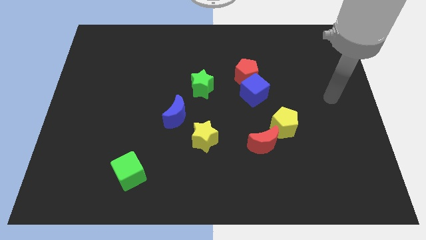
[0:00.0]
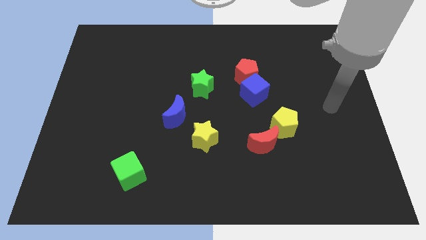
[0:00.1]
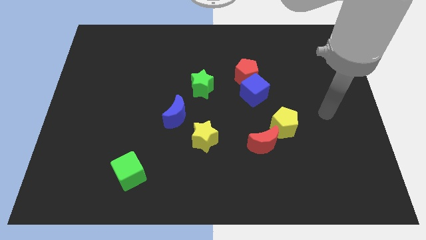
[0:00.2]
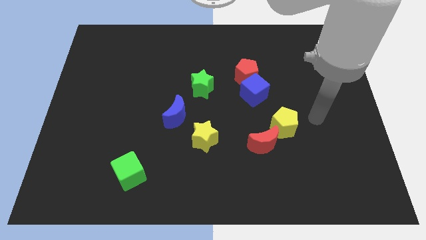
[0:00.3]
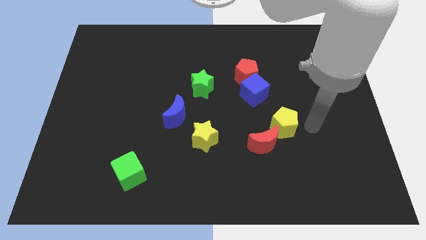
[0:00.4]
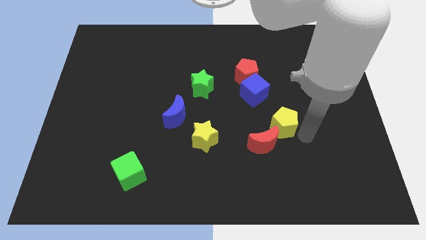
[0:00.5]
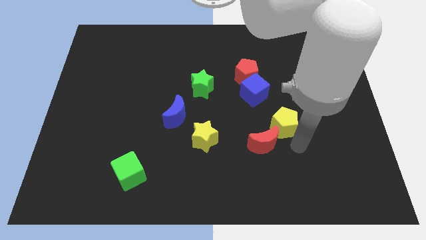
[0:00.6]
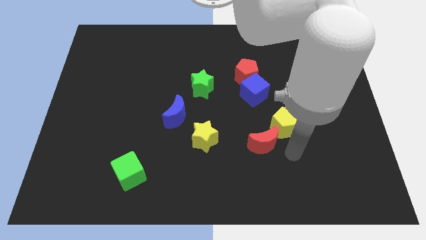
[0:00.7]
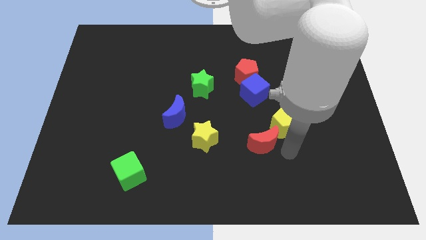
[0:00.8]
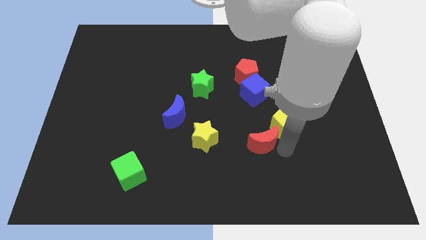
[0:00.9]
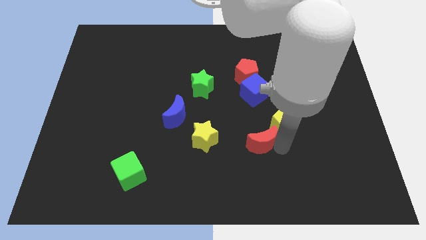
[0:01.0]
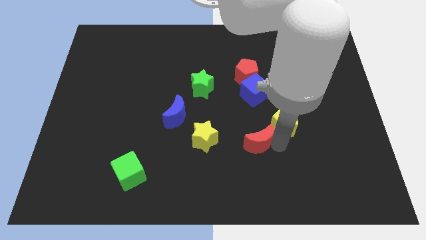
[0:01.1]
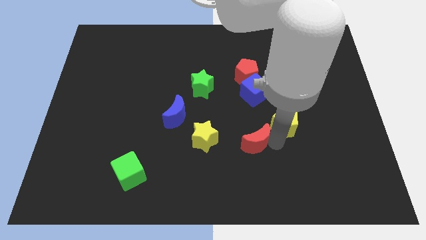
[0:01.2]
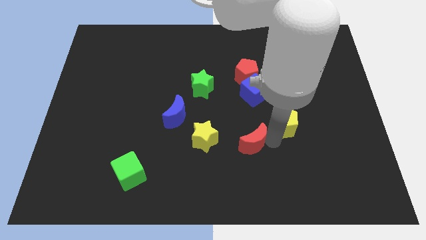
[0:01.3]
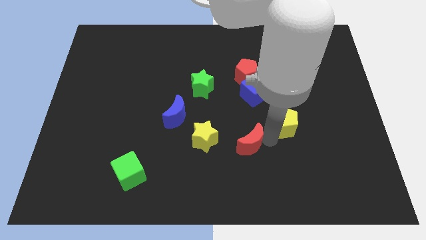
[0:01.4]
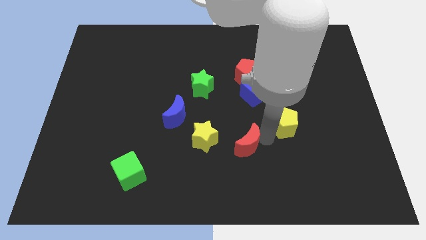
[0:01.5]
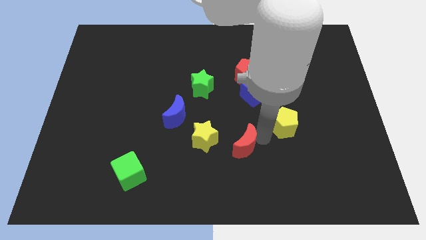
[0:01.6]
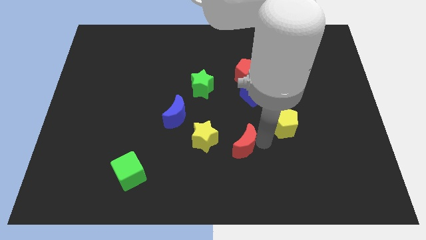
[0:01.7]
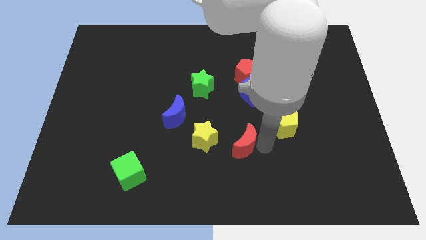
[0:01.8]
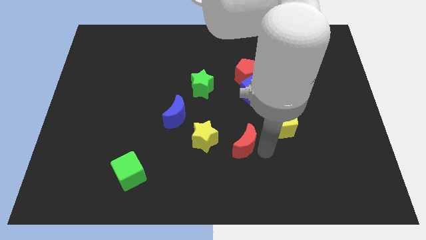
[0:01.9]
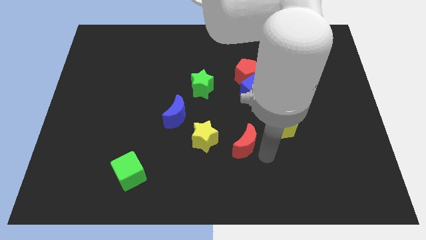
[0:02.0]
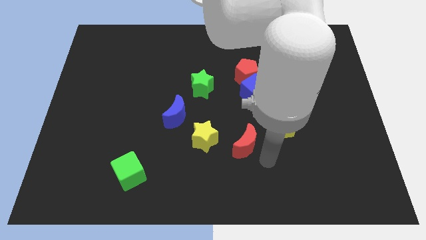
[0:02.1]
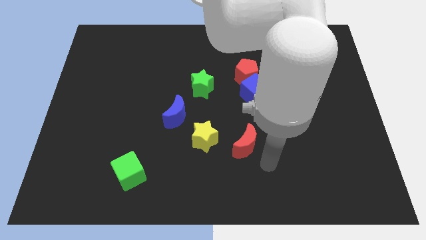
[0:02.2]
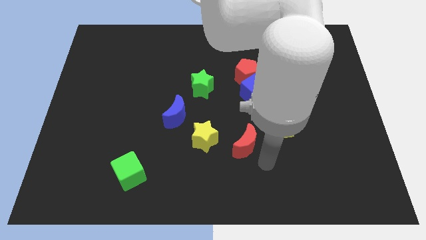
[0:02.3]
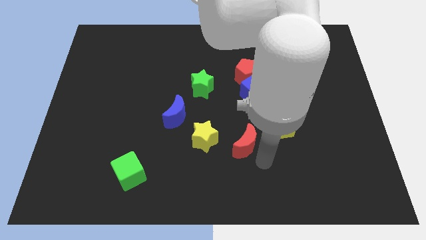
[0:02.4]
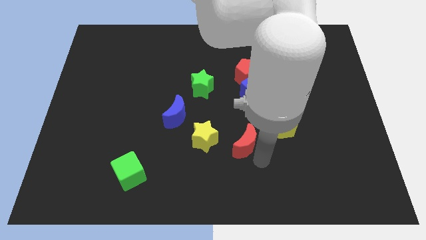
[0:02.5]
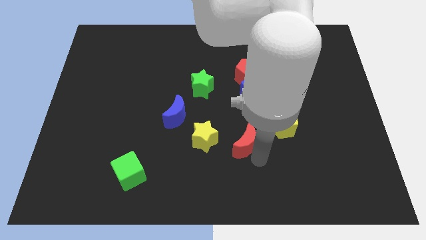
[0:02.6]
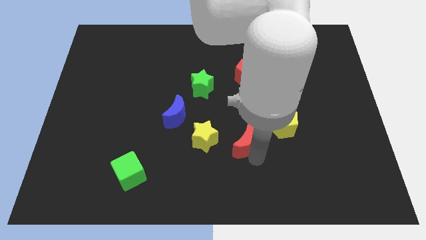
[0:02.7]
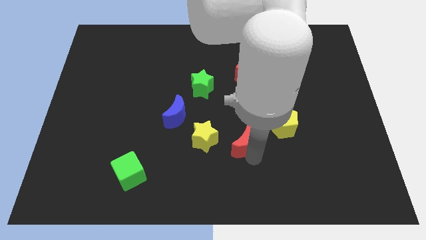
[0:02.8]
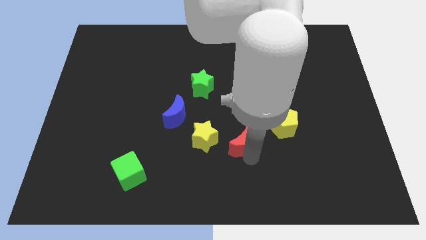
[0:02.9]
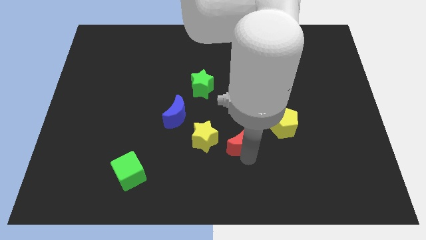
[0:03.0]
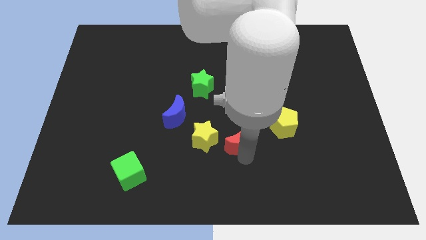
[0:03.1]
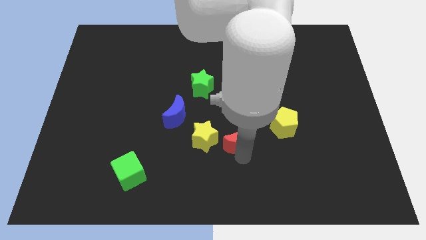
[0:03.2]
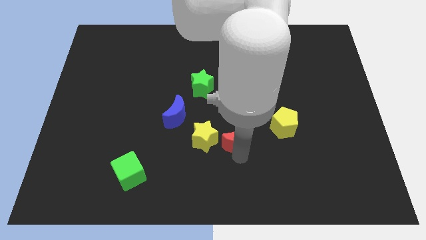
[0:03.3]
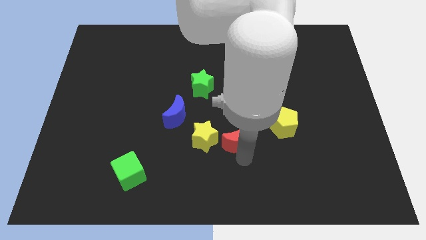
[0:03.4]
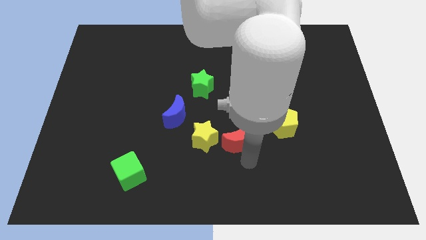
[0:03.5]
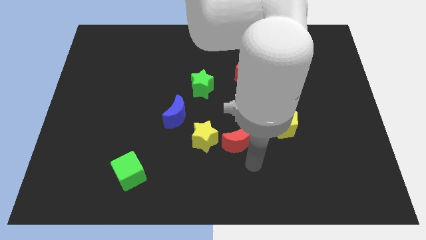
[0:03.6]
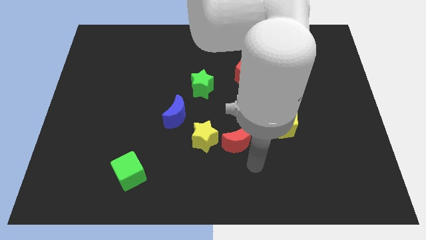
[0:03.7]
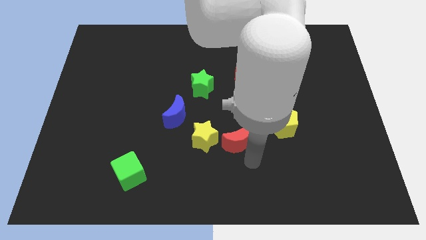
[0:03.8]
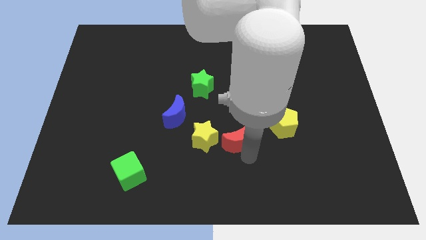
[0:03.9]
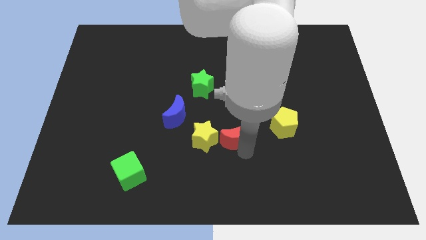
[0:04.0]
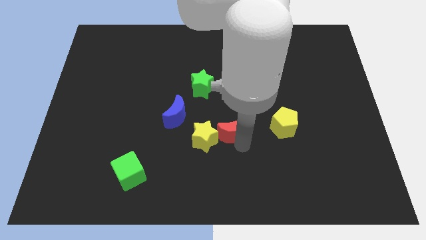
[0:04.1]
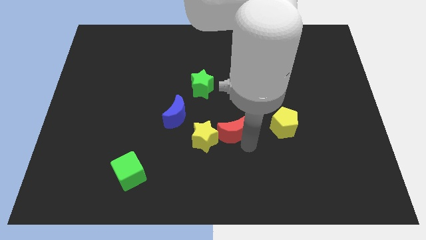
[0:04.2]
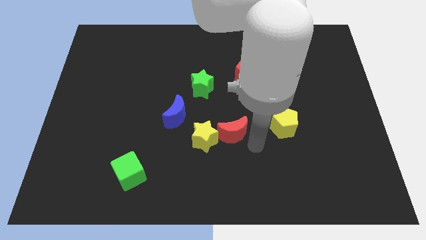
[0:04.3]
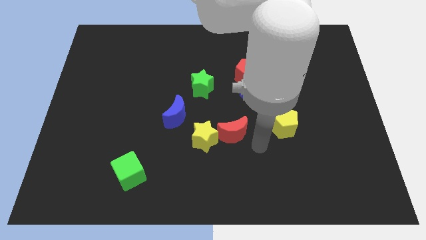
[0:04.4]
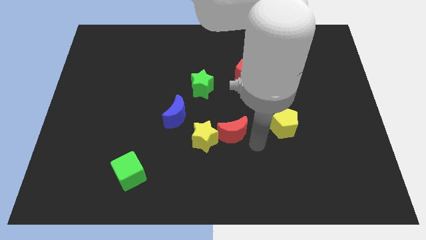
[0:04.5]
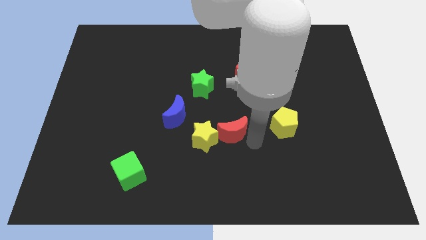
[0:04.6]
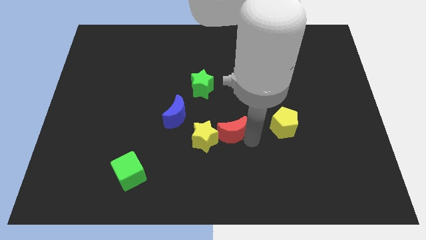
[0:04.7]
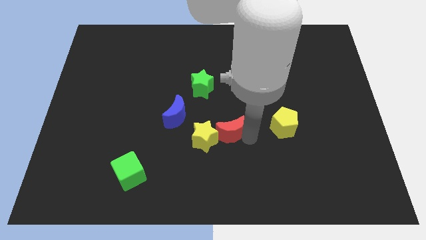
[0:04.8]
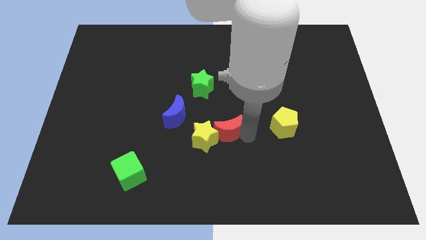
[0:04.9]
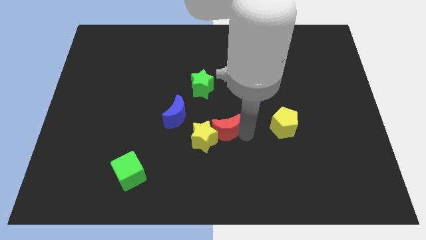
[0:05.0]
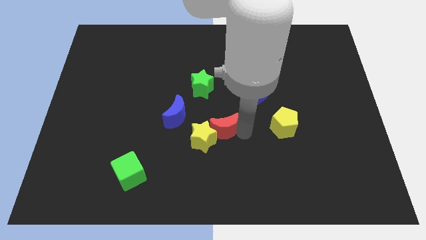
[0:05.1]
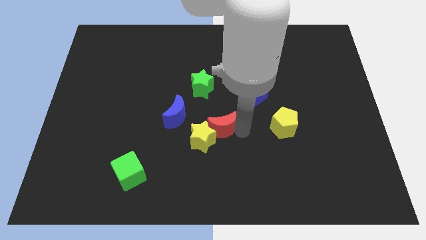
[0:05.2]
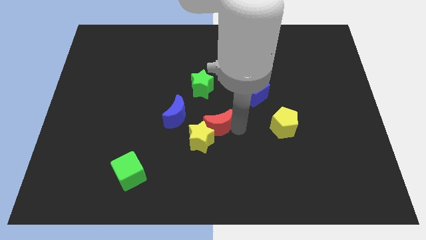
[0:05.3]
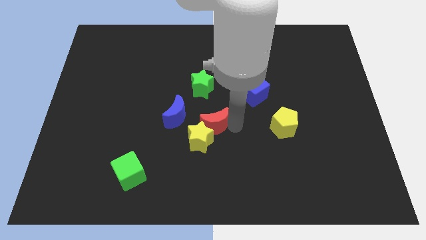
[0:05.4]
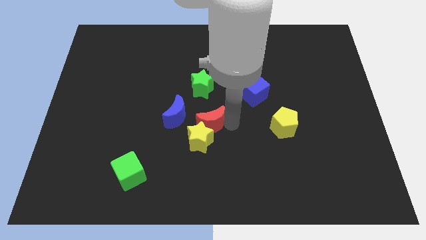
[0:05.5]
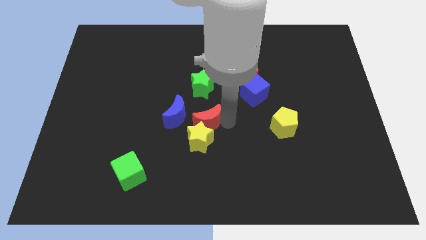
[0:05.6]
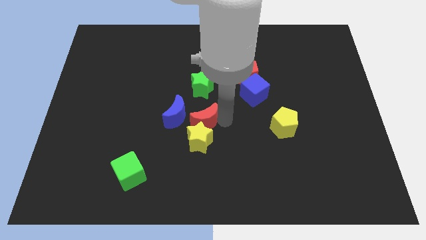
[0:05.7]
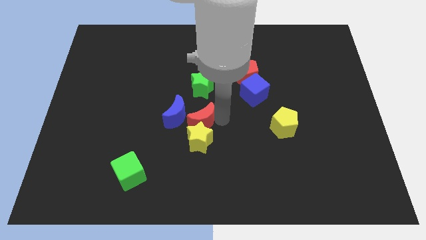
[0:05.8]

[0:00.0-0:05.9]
put the red moon to the blue moon

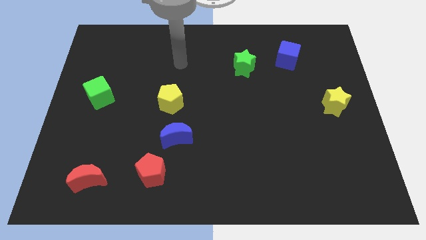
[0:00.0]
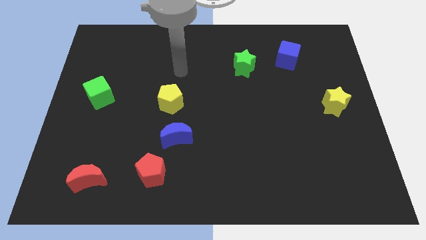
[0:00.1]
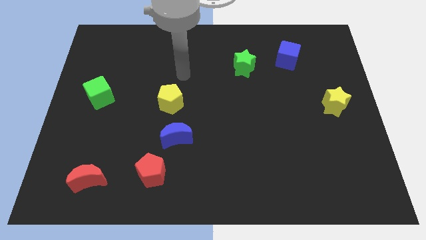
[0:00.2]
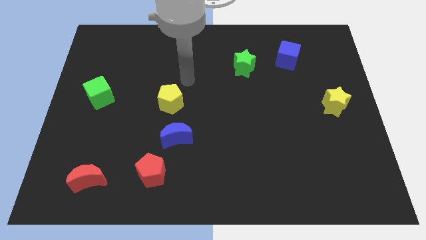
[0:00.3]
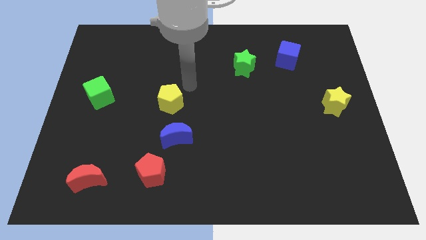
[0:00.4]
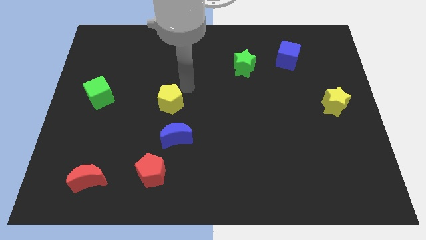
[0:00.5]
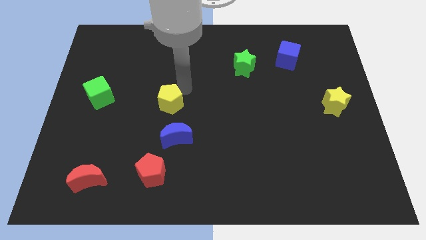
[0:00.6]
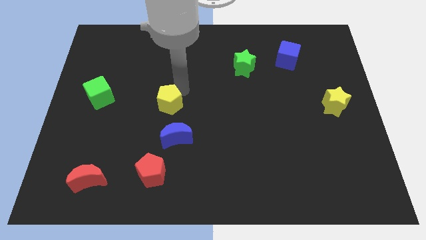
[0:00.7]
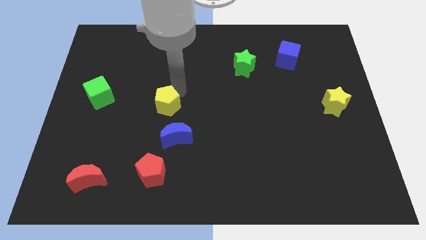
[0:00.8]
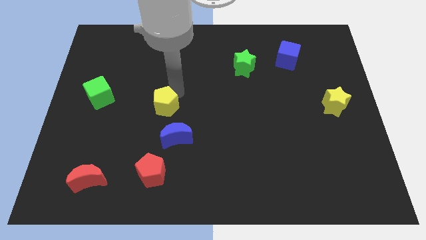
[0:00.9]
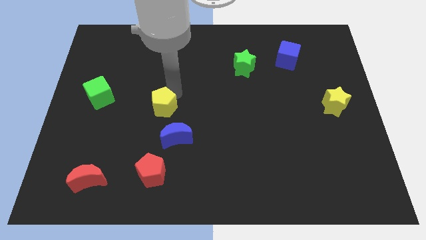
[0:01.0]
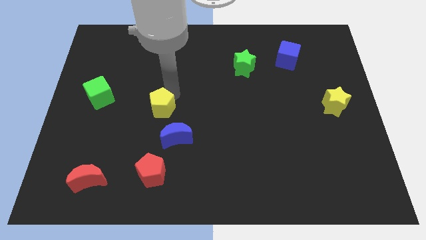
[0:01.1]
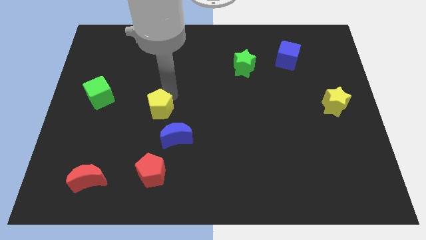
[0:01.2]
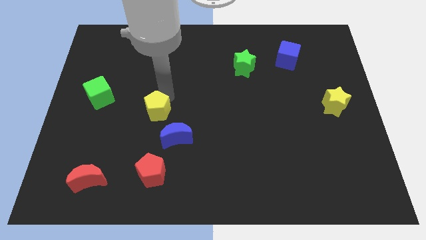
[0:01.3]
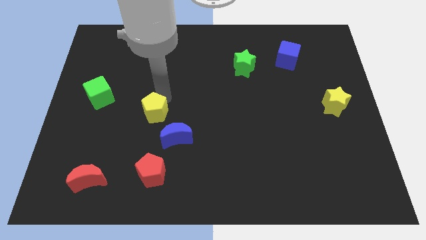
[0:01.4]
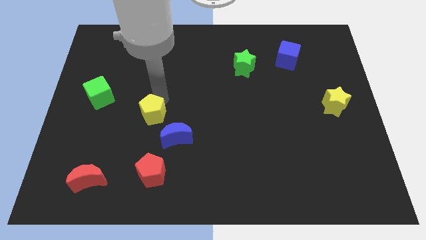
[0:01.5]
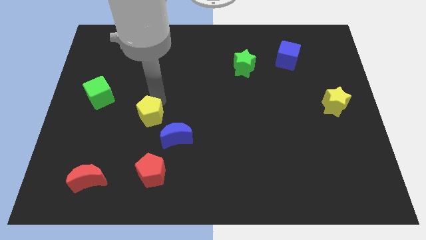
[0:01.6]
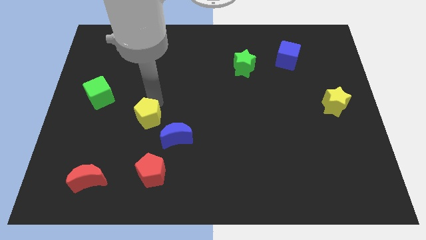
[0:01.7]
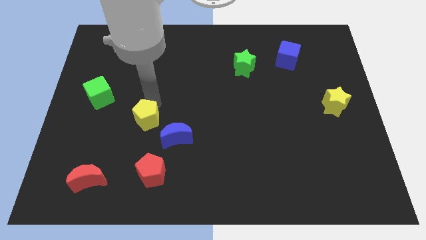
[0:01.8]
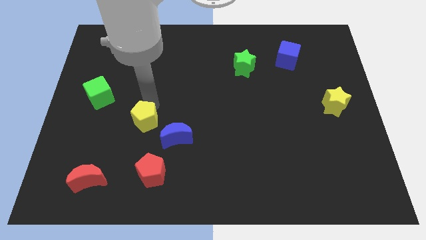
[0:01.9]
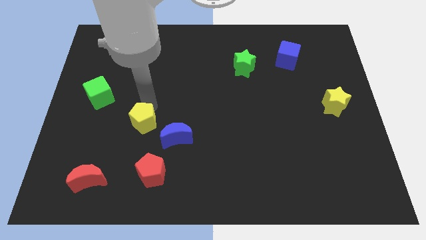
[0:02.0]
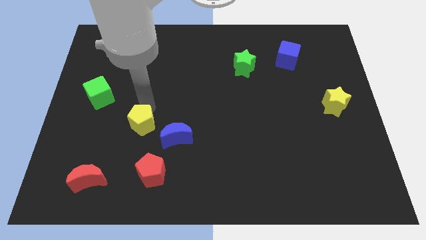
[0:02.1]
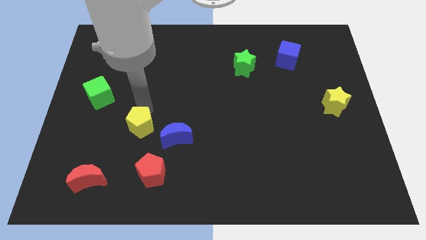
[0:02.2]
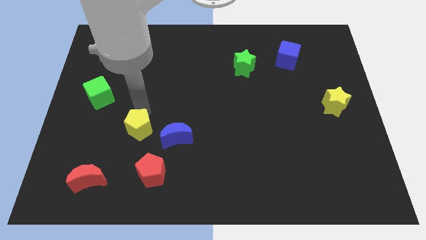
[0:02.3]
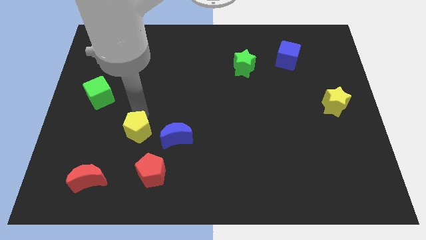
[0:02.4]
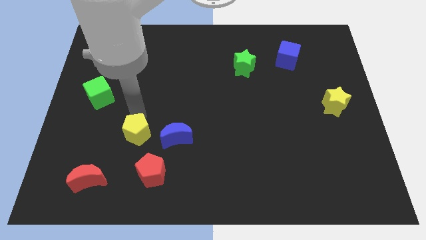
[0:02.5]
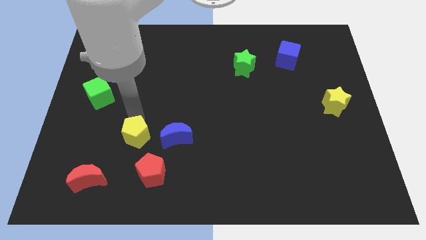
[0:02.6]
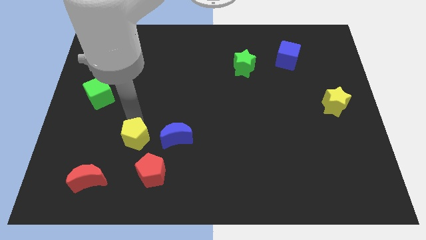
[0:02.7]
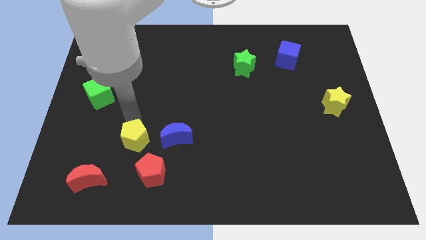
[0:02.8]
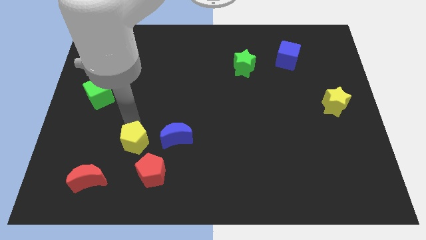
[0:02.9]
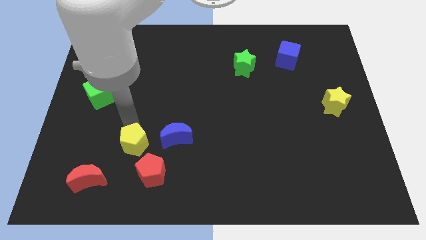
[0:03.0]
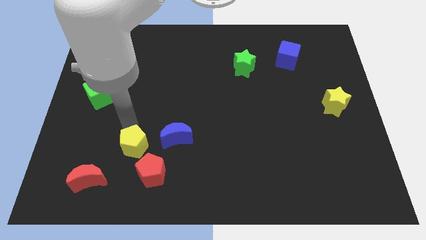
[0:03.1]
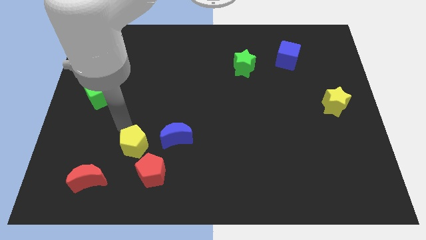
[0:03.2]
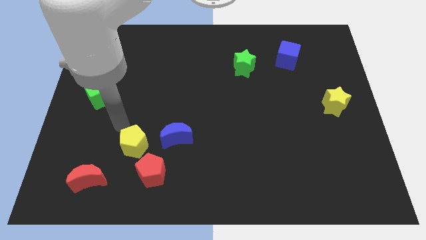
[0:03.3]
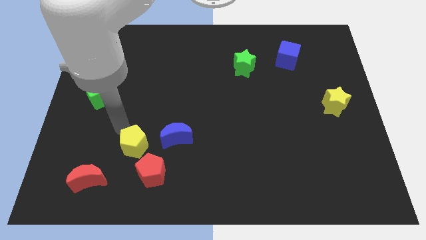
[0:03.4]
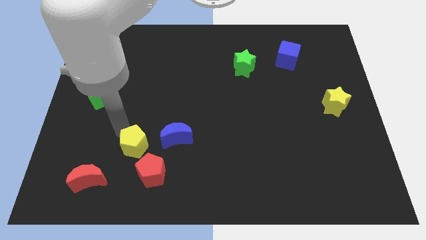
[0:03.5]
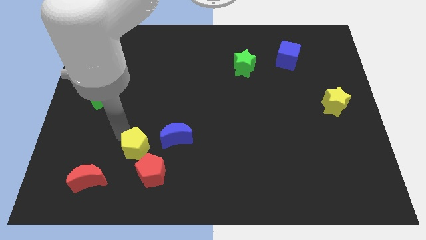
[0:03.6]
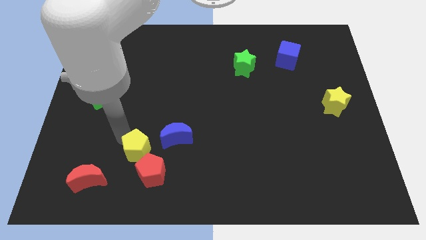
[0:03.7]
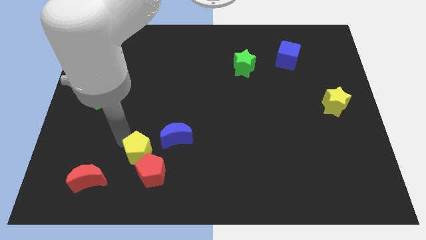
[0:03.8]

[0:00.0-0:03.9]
put the yellow pentagon close to the red pentagon
